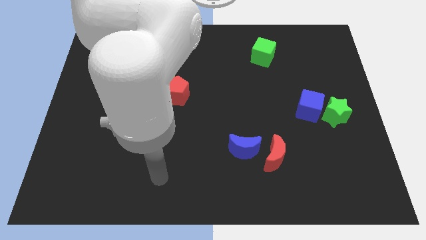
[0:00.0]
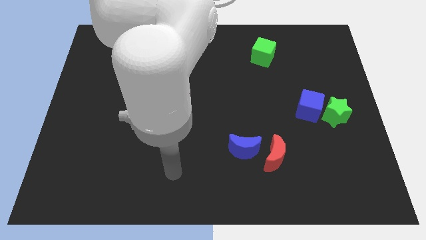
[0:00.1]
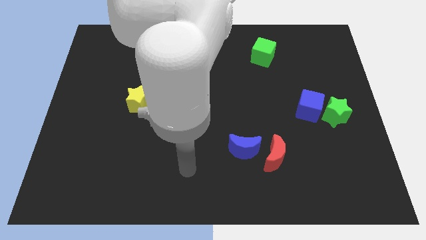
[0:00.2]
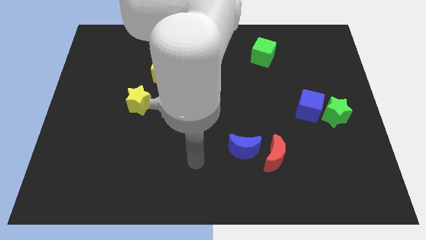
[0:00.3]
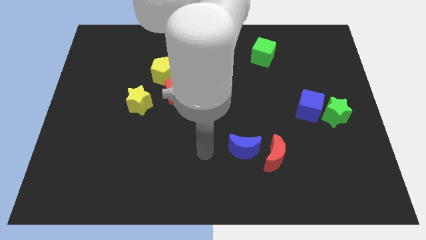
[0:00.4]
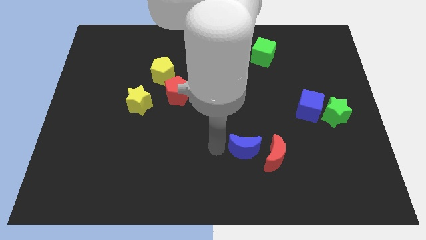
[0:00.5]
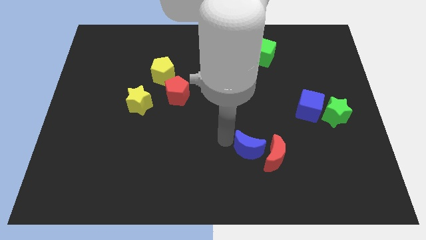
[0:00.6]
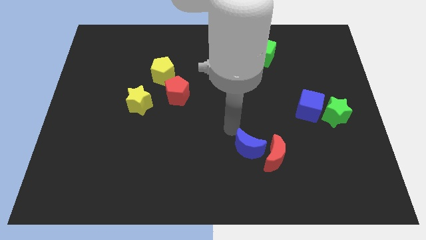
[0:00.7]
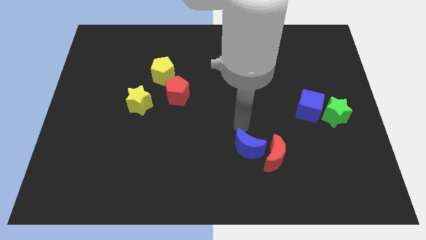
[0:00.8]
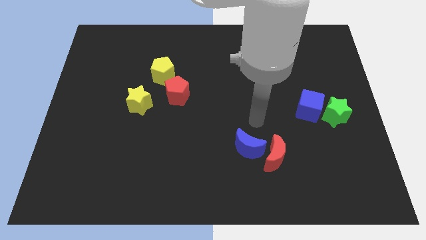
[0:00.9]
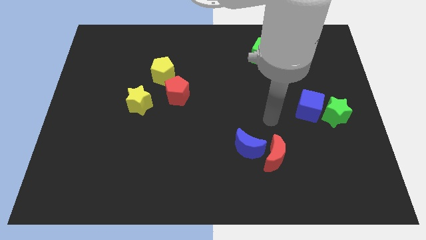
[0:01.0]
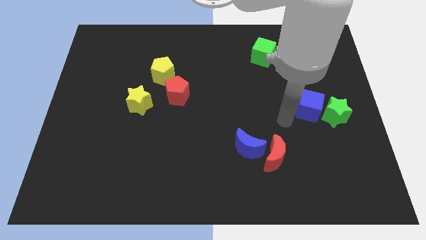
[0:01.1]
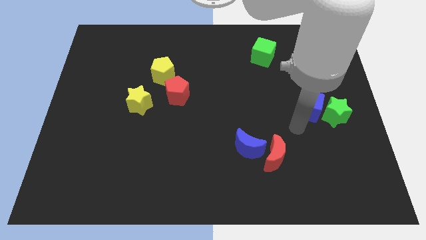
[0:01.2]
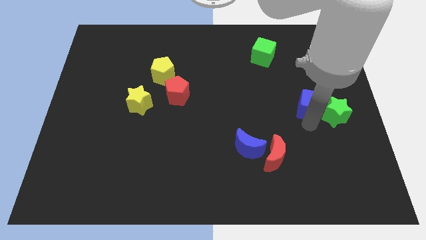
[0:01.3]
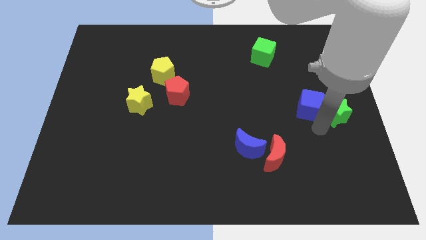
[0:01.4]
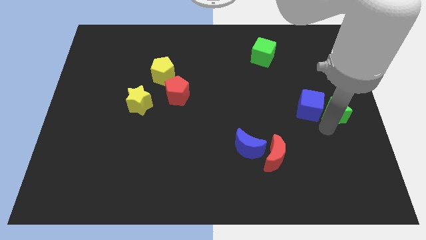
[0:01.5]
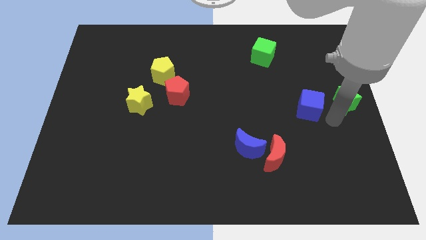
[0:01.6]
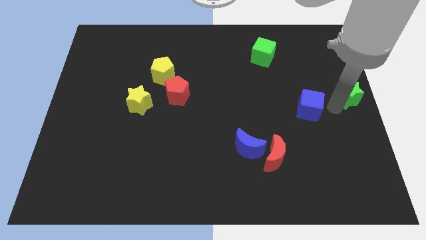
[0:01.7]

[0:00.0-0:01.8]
move the blue cube away from the green star

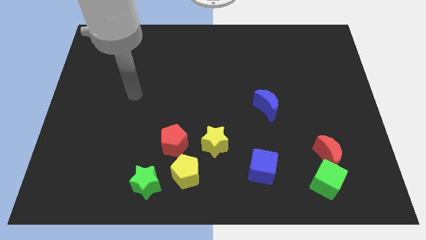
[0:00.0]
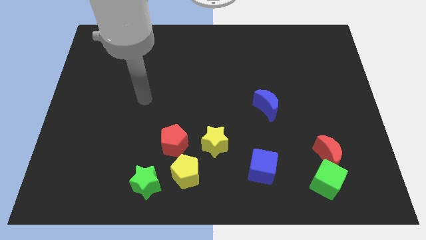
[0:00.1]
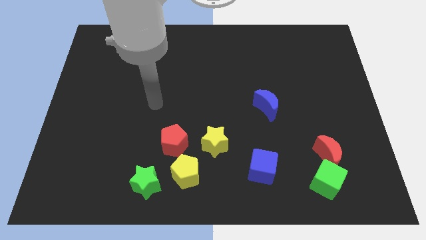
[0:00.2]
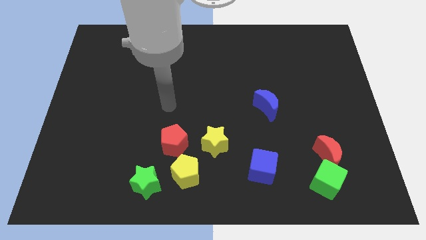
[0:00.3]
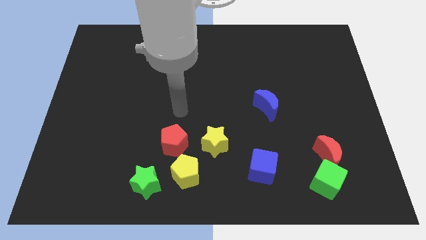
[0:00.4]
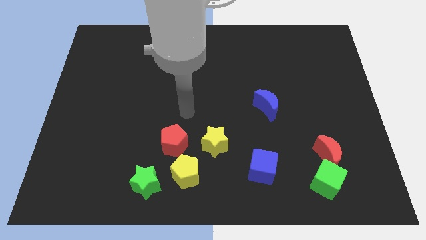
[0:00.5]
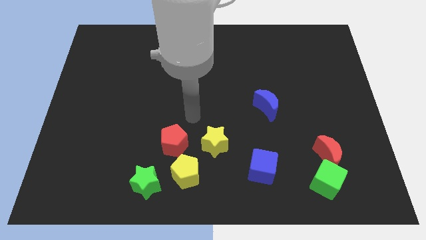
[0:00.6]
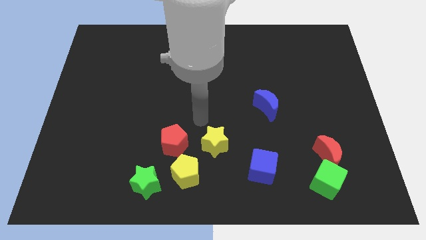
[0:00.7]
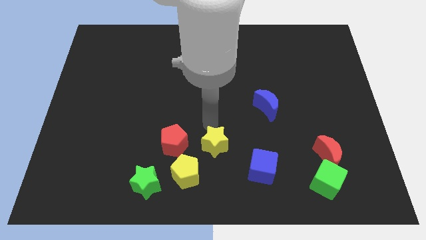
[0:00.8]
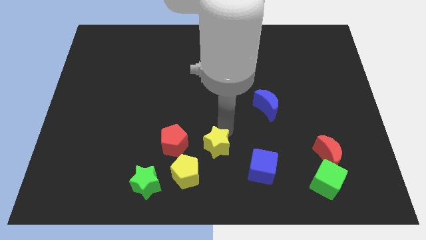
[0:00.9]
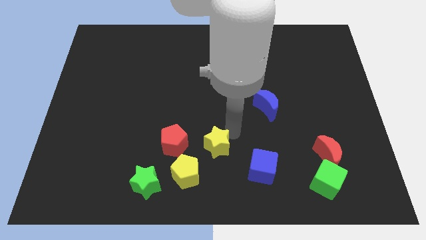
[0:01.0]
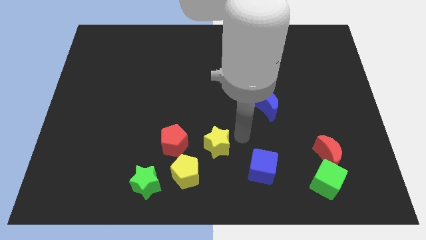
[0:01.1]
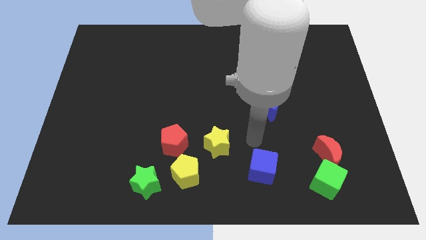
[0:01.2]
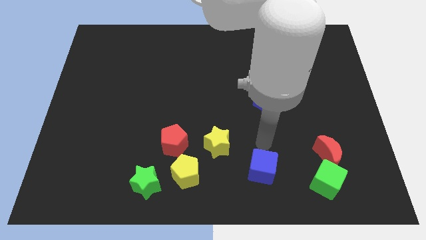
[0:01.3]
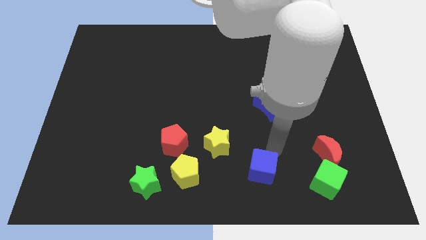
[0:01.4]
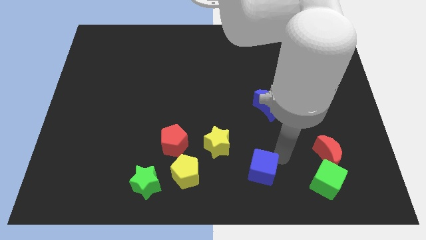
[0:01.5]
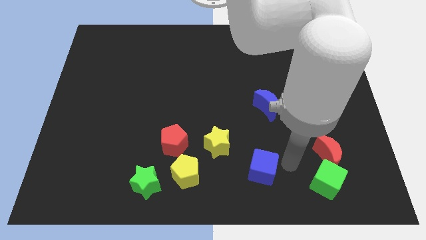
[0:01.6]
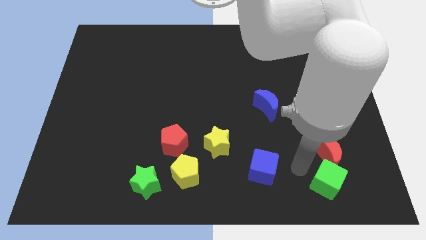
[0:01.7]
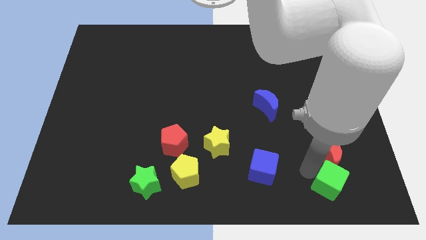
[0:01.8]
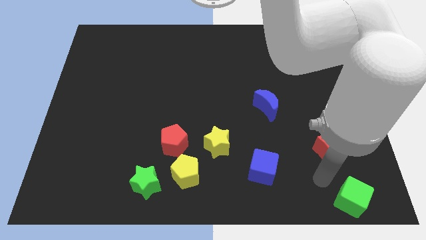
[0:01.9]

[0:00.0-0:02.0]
separate the red moon from the green cube

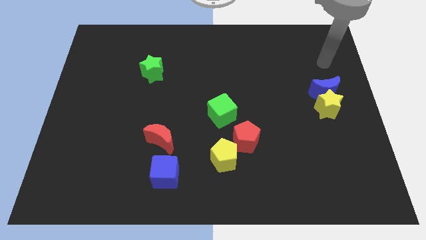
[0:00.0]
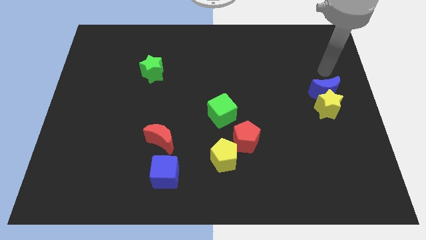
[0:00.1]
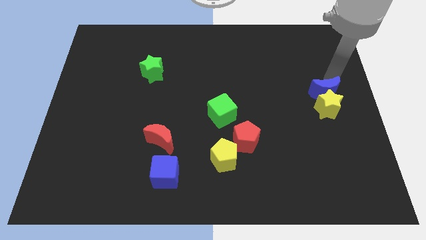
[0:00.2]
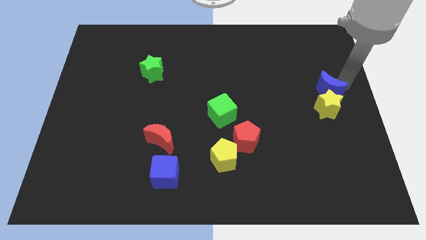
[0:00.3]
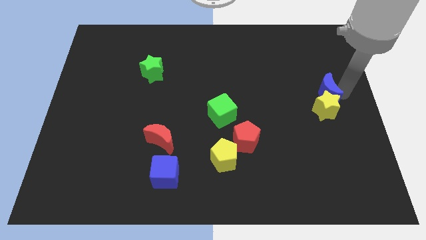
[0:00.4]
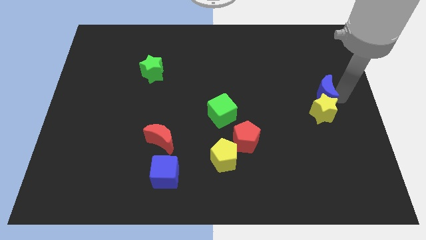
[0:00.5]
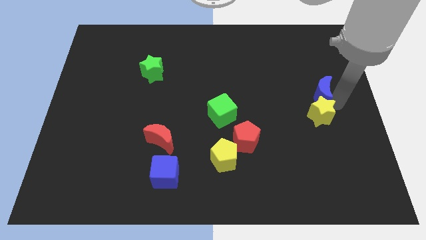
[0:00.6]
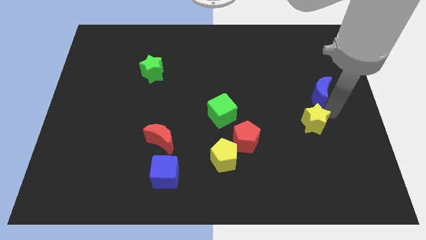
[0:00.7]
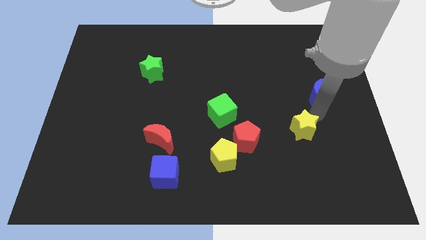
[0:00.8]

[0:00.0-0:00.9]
move the blue moon away from the yellow star

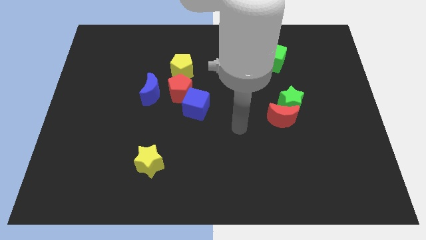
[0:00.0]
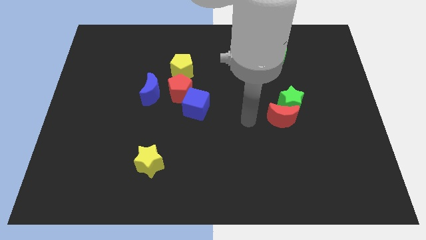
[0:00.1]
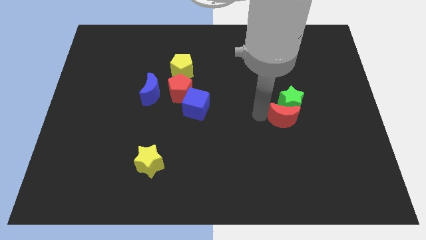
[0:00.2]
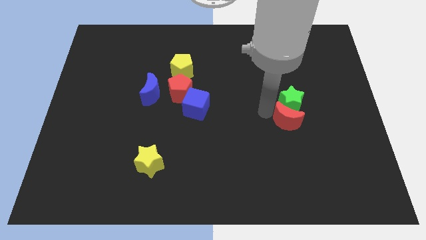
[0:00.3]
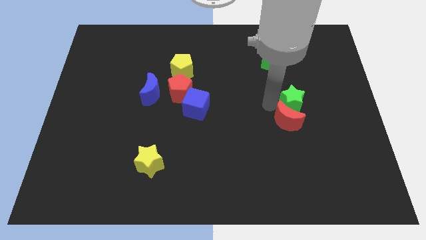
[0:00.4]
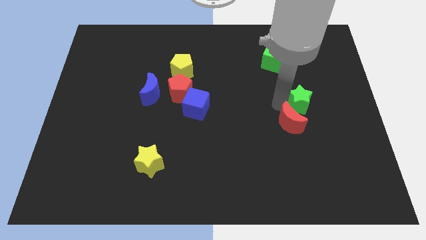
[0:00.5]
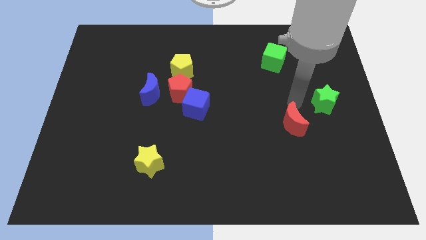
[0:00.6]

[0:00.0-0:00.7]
move the red moon away from the green star

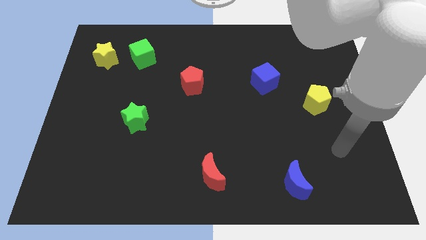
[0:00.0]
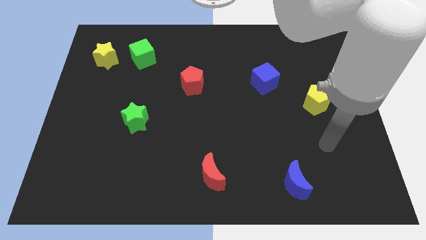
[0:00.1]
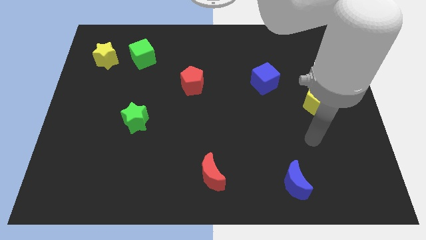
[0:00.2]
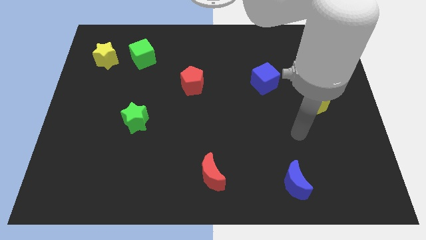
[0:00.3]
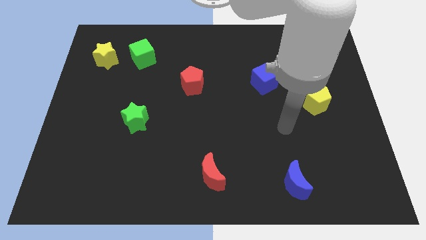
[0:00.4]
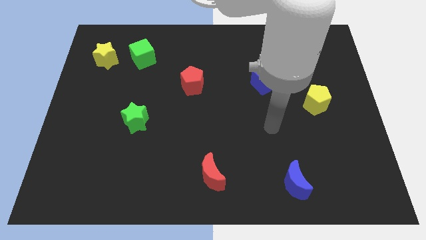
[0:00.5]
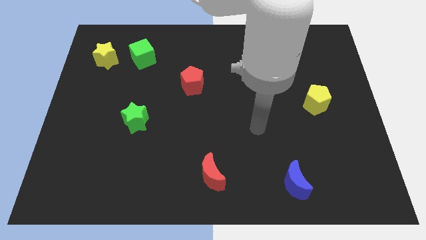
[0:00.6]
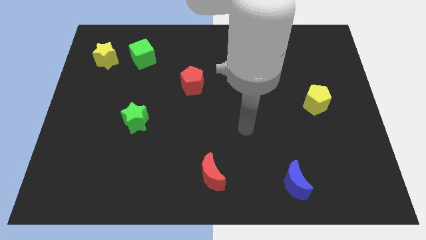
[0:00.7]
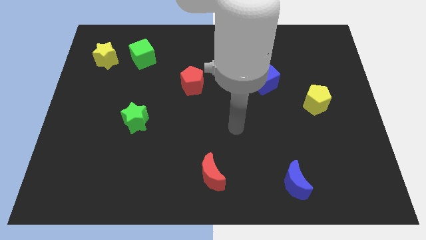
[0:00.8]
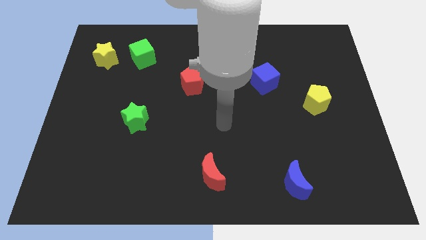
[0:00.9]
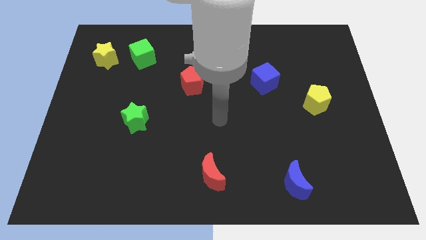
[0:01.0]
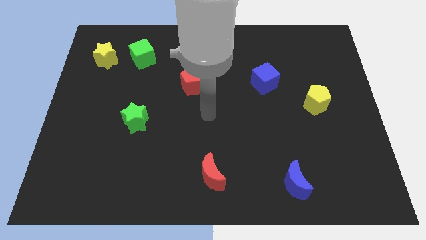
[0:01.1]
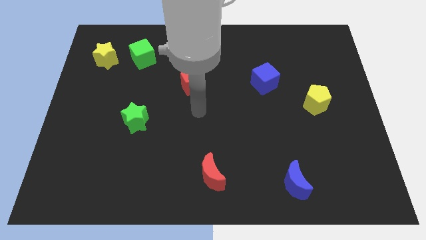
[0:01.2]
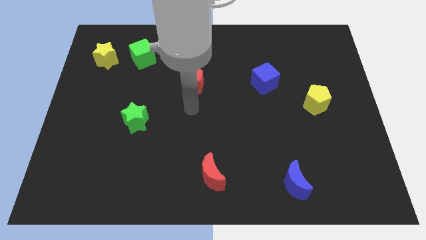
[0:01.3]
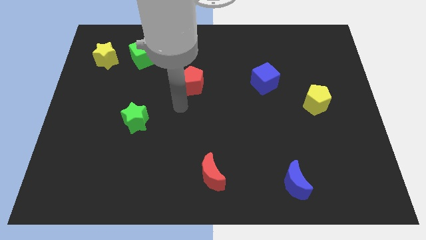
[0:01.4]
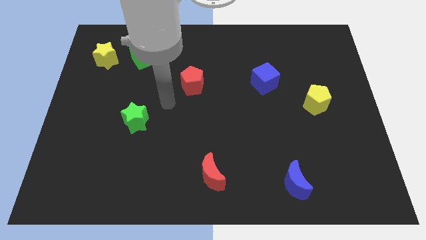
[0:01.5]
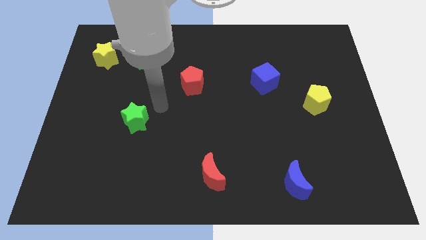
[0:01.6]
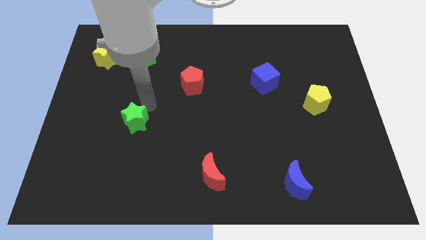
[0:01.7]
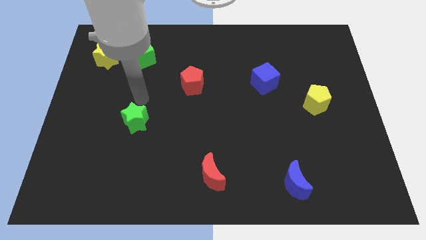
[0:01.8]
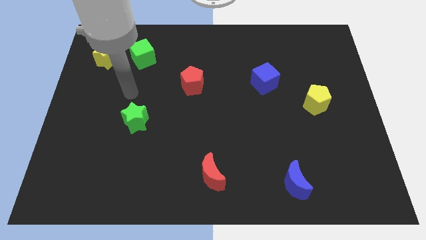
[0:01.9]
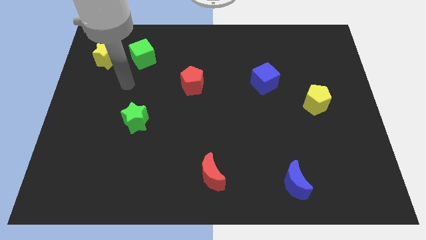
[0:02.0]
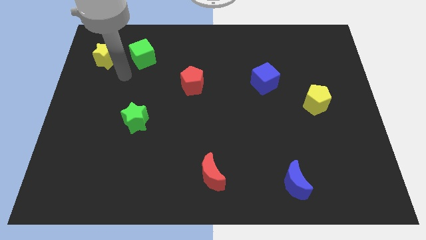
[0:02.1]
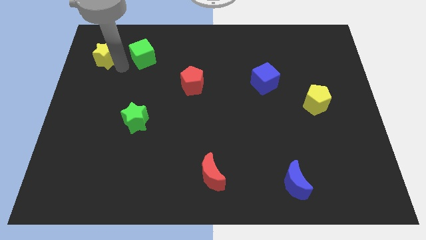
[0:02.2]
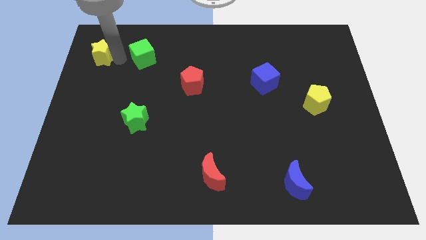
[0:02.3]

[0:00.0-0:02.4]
move the green cube away from the yellow star

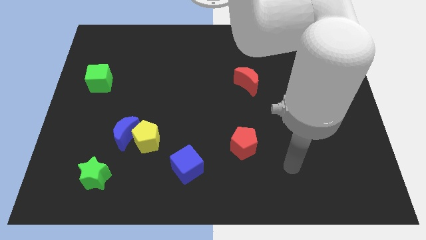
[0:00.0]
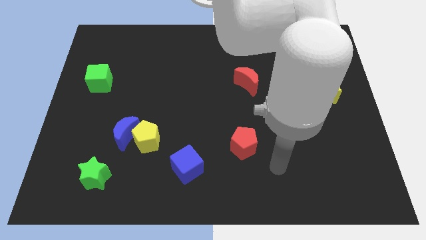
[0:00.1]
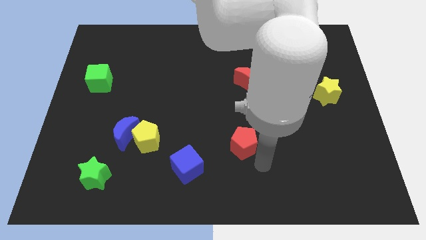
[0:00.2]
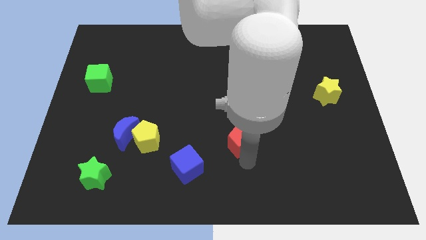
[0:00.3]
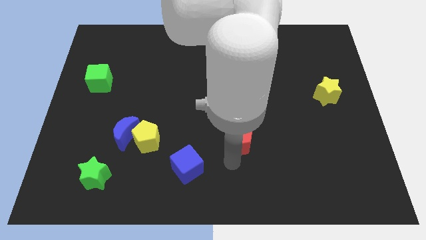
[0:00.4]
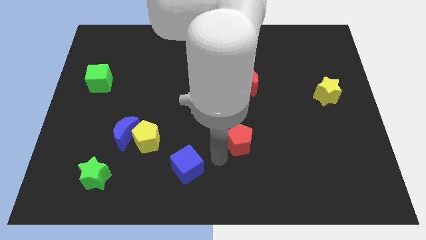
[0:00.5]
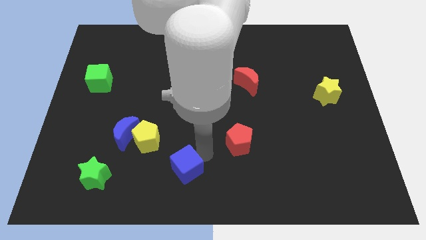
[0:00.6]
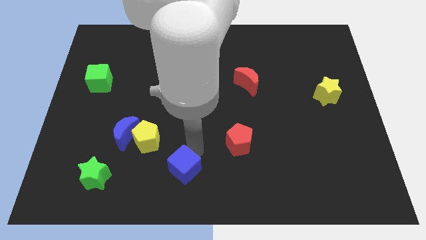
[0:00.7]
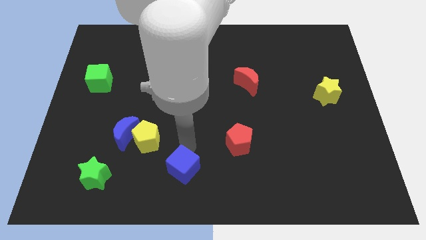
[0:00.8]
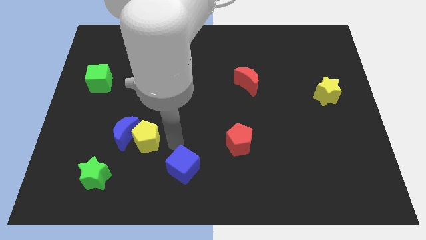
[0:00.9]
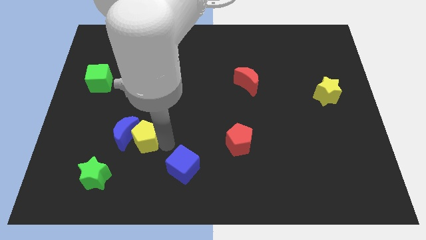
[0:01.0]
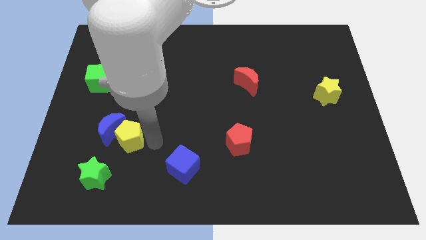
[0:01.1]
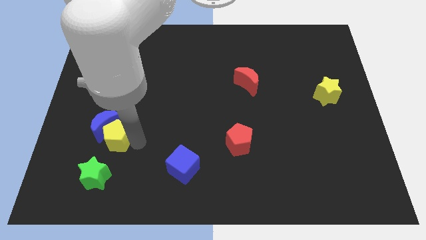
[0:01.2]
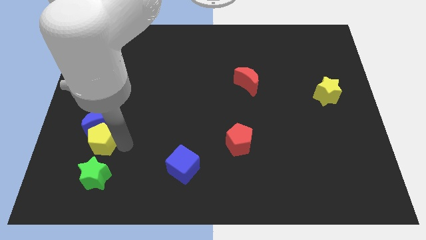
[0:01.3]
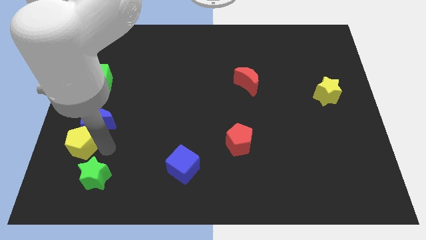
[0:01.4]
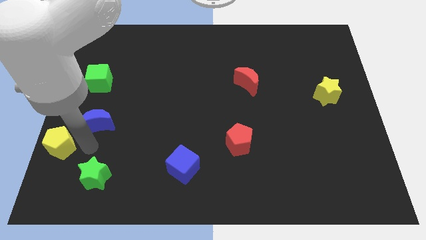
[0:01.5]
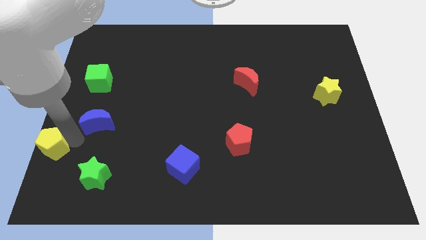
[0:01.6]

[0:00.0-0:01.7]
move the blue moon away from the yellow pentagon
